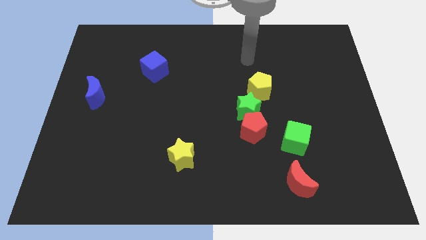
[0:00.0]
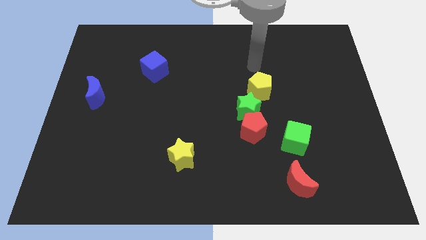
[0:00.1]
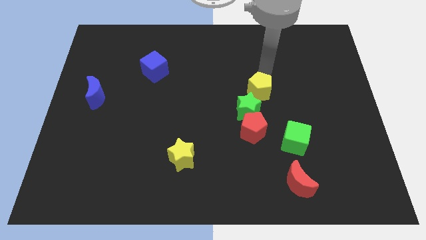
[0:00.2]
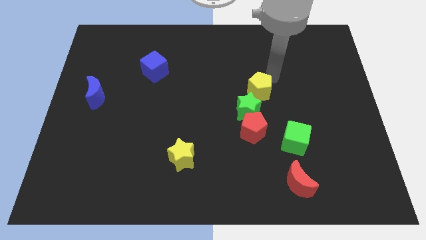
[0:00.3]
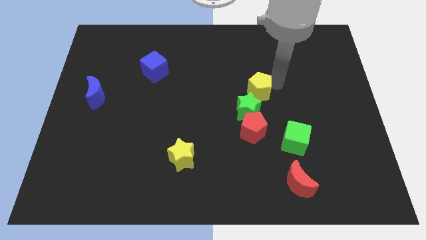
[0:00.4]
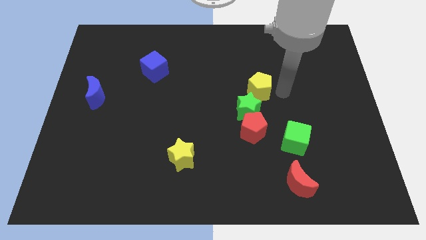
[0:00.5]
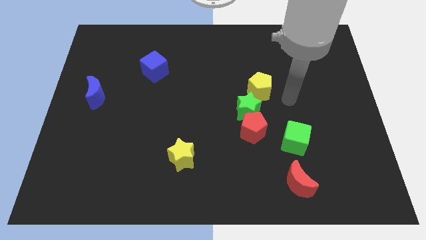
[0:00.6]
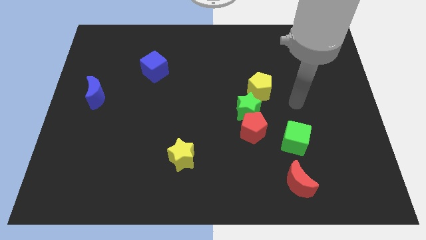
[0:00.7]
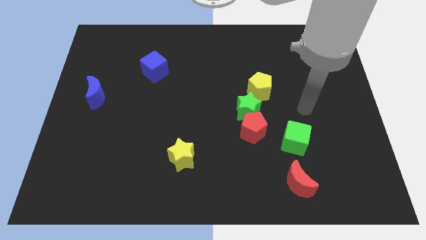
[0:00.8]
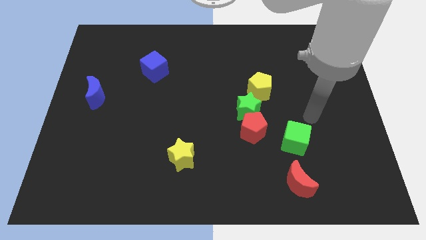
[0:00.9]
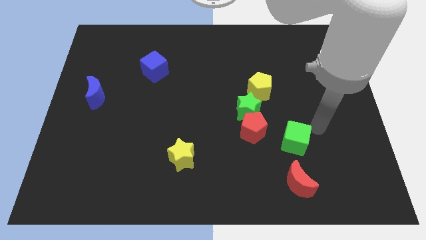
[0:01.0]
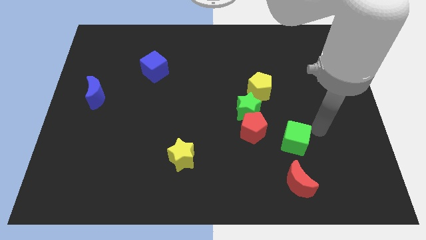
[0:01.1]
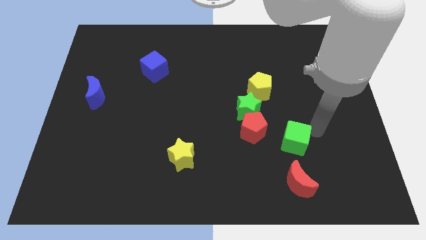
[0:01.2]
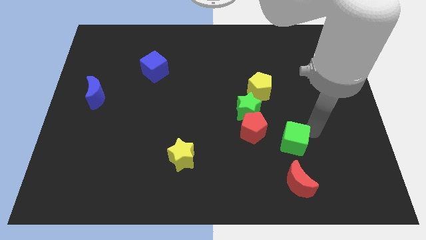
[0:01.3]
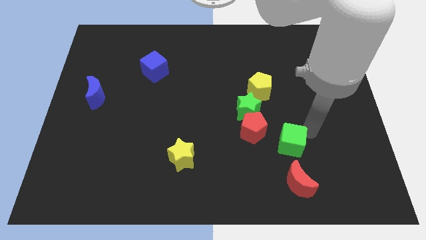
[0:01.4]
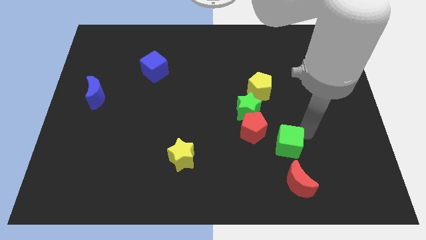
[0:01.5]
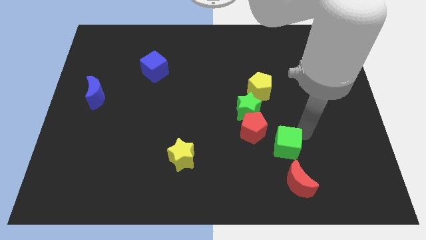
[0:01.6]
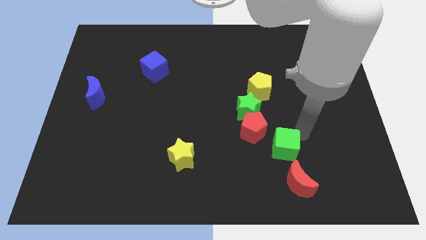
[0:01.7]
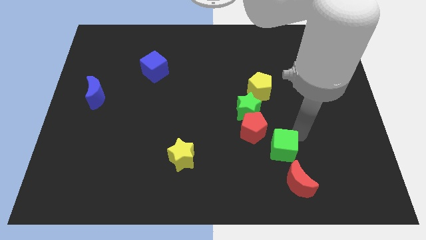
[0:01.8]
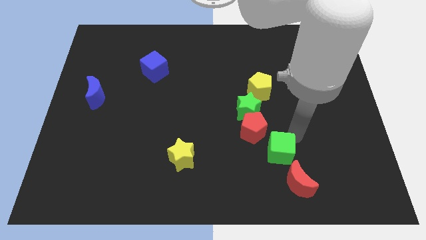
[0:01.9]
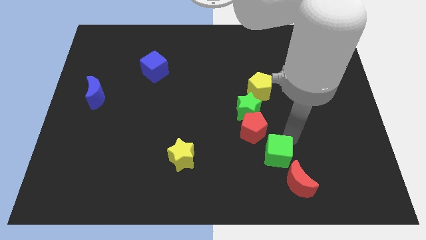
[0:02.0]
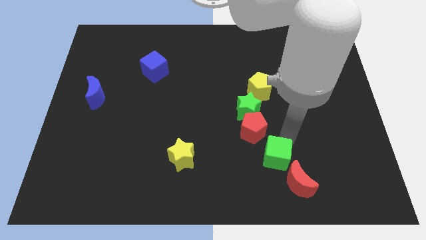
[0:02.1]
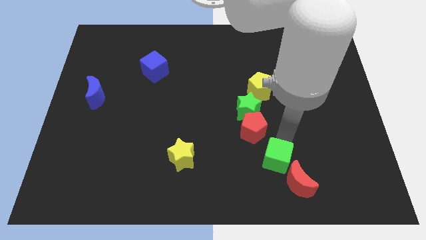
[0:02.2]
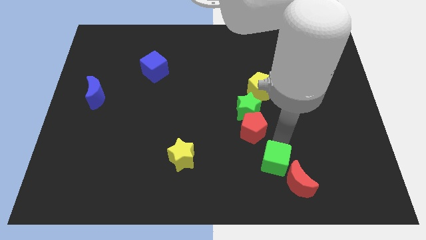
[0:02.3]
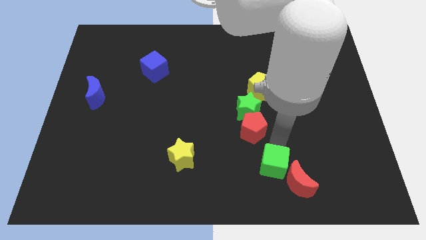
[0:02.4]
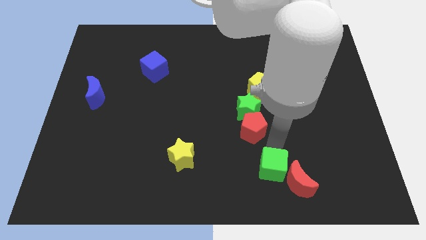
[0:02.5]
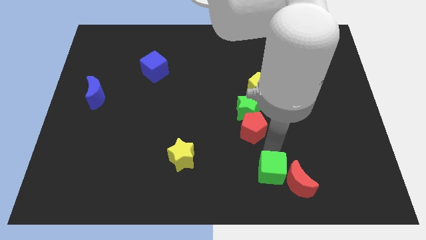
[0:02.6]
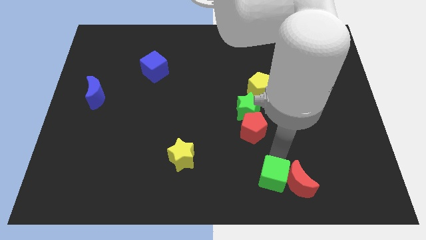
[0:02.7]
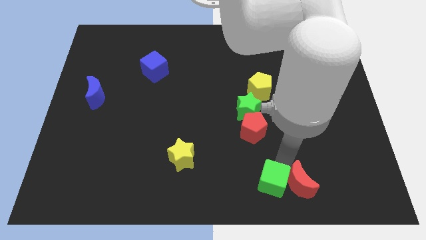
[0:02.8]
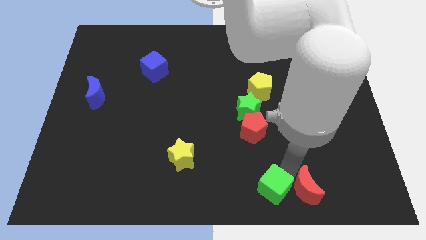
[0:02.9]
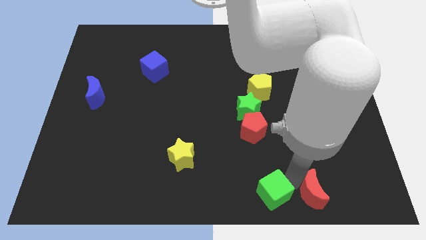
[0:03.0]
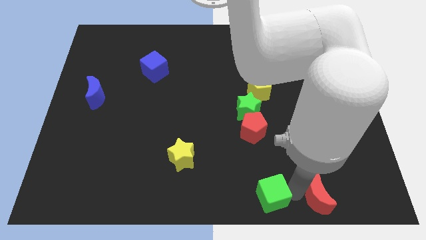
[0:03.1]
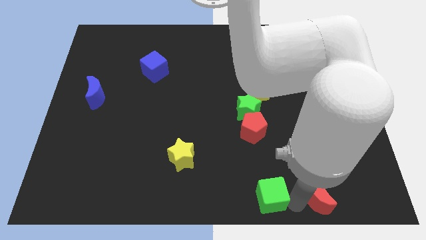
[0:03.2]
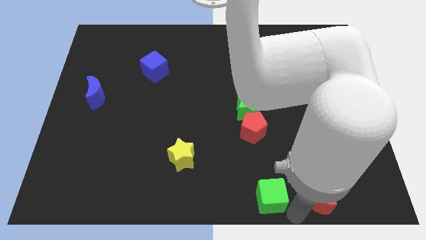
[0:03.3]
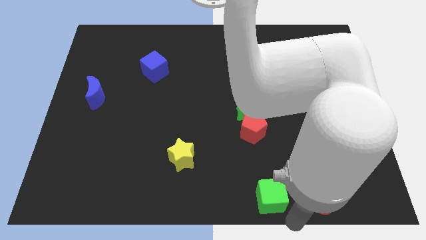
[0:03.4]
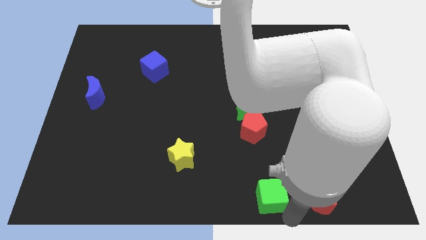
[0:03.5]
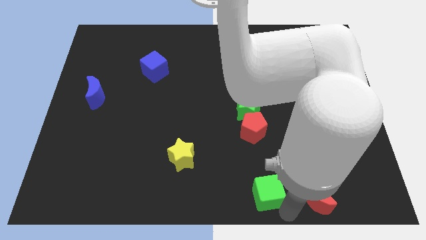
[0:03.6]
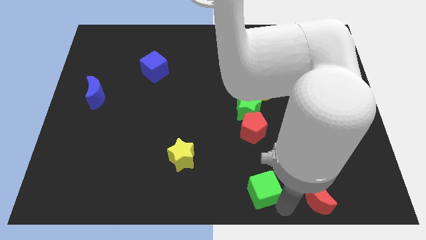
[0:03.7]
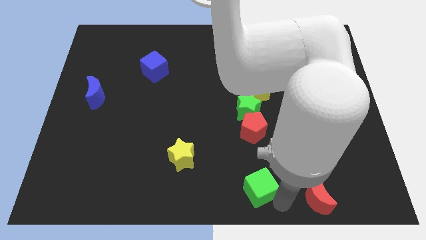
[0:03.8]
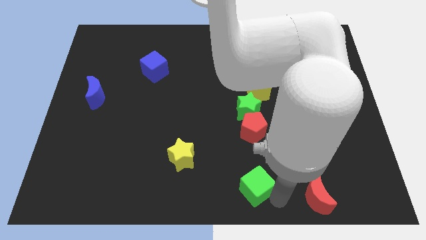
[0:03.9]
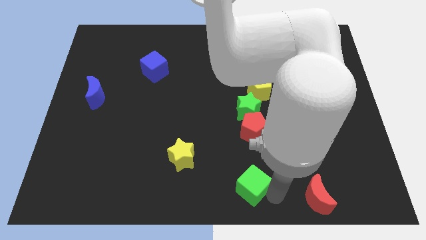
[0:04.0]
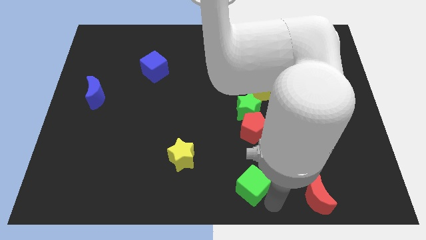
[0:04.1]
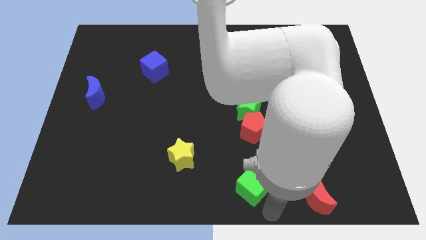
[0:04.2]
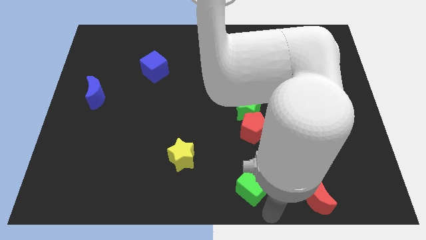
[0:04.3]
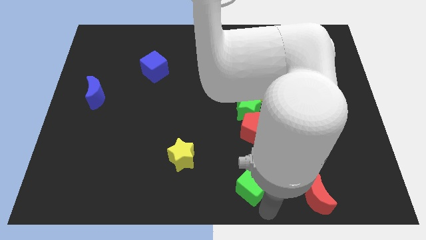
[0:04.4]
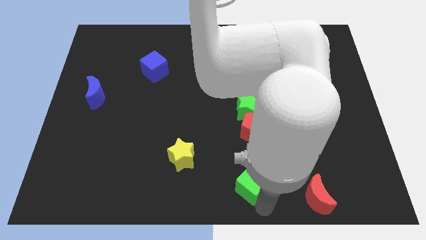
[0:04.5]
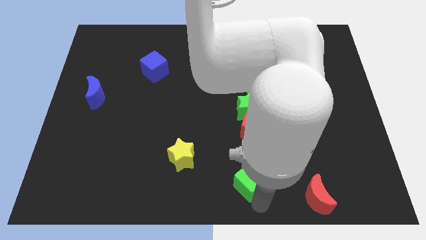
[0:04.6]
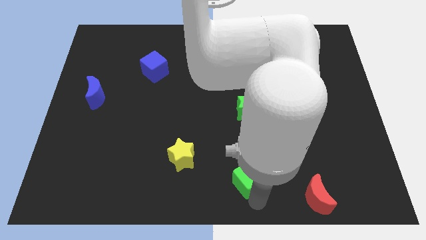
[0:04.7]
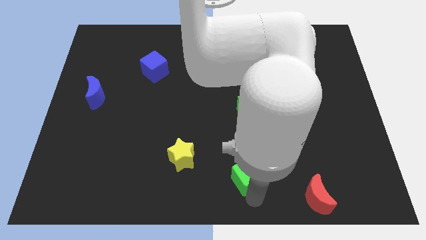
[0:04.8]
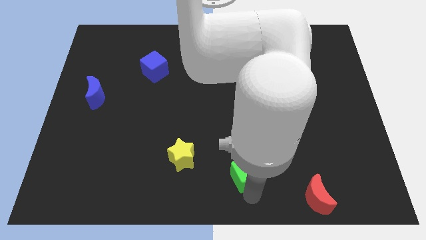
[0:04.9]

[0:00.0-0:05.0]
put the green cube just right of the yellow star

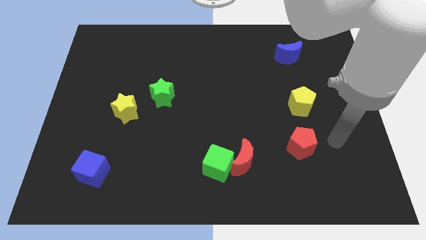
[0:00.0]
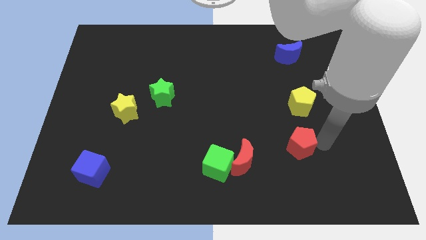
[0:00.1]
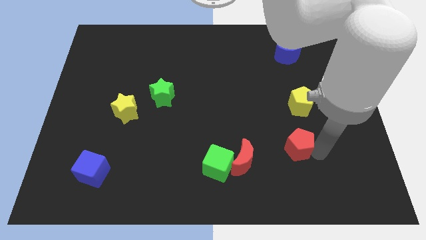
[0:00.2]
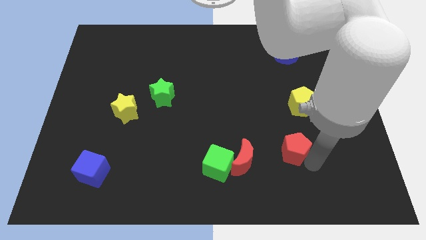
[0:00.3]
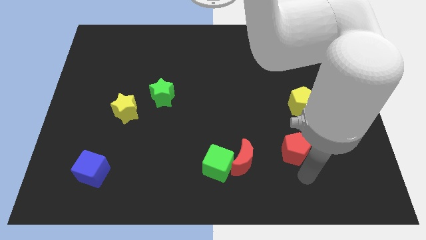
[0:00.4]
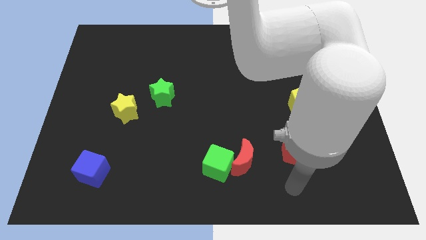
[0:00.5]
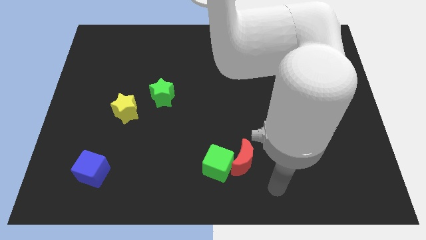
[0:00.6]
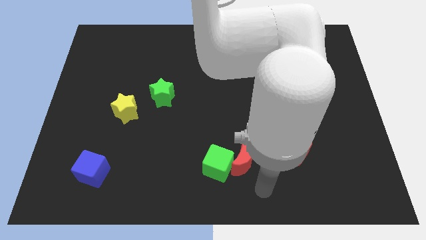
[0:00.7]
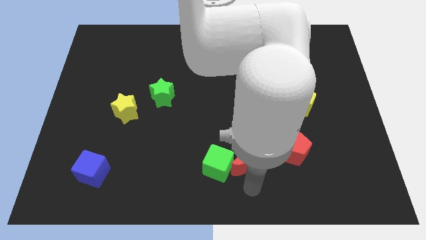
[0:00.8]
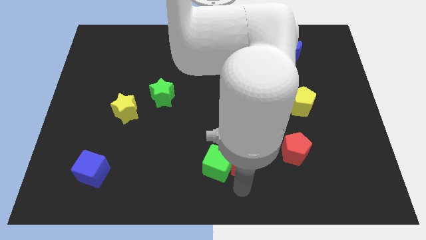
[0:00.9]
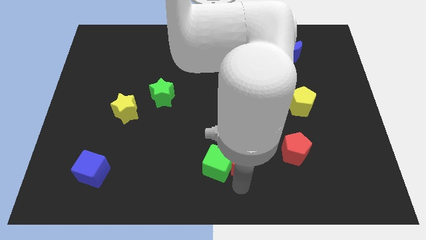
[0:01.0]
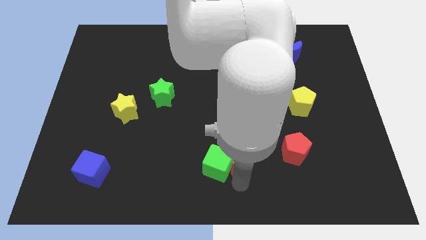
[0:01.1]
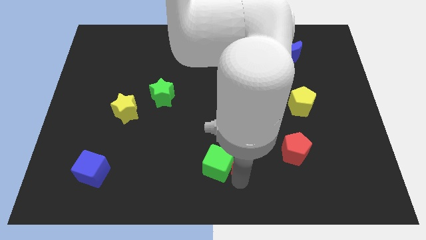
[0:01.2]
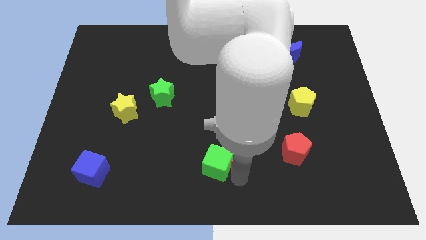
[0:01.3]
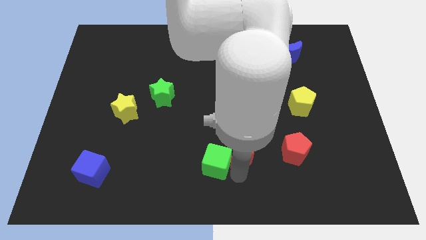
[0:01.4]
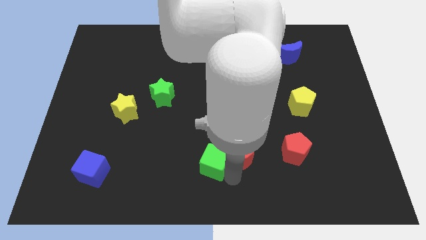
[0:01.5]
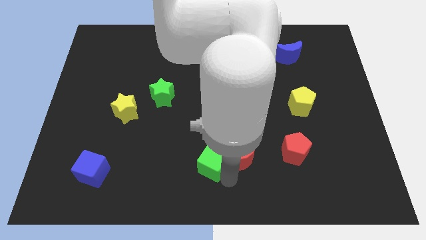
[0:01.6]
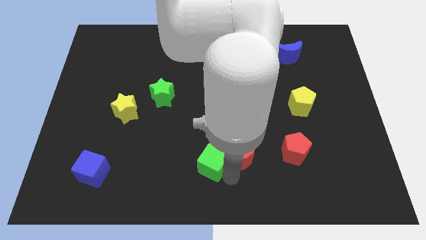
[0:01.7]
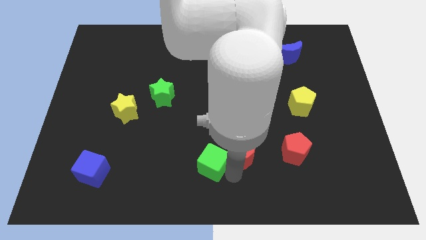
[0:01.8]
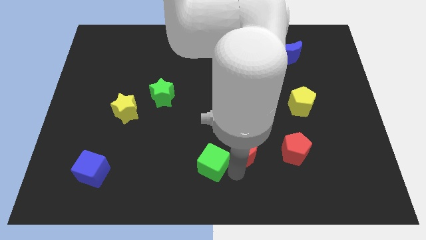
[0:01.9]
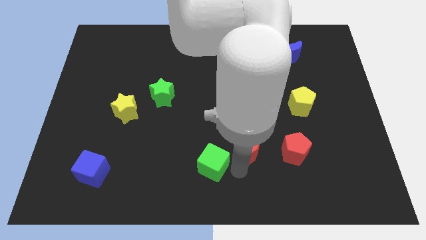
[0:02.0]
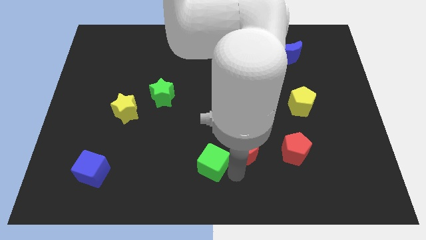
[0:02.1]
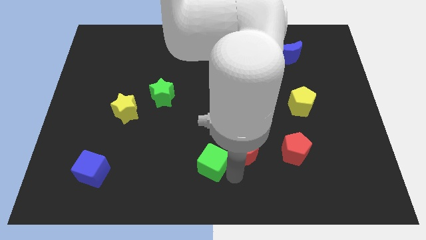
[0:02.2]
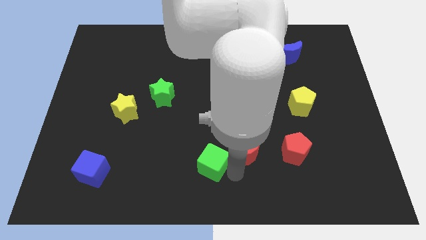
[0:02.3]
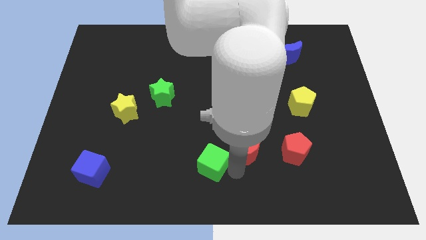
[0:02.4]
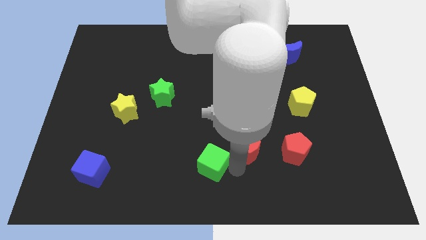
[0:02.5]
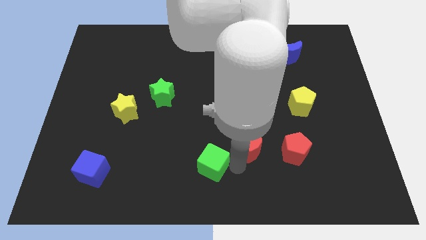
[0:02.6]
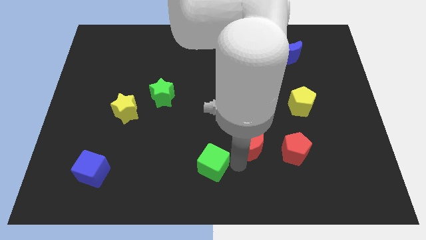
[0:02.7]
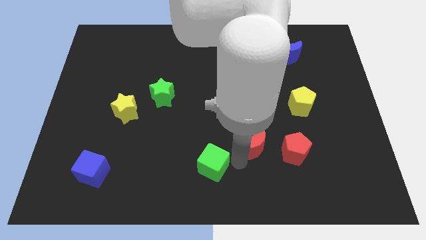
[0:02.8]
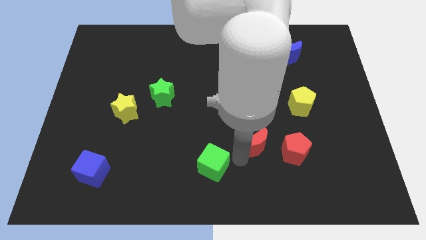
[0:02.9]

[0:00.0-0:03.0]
slide the red moon to the top left of the red pentagon
